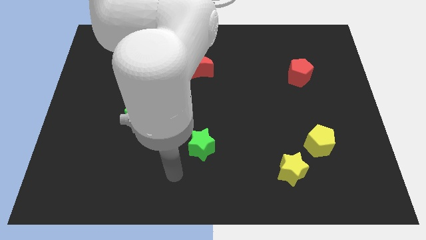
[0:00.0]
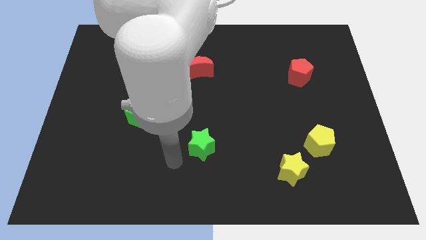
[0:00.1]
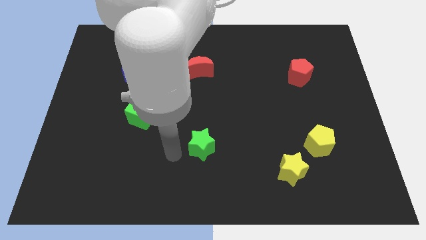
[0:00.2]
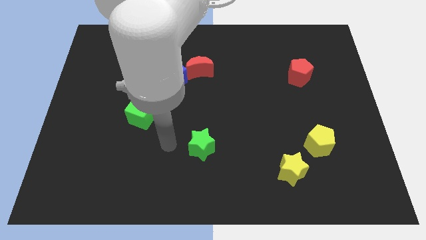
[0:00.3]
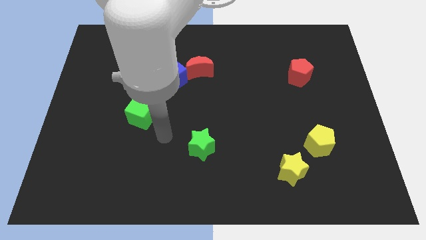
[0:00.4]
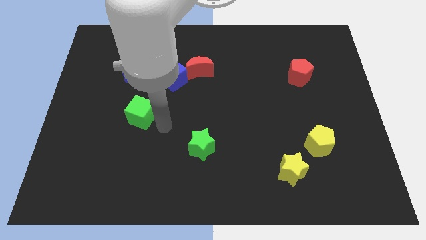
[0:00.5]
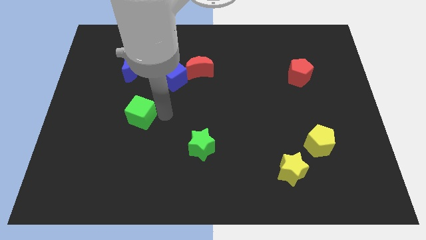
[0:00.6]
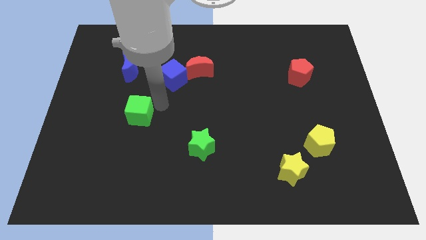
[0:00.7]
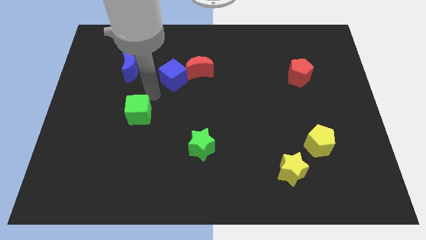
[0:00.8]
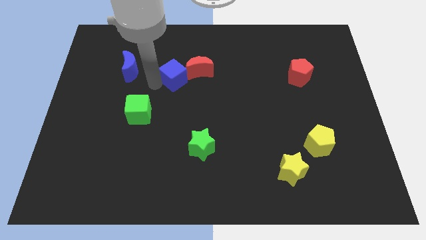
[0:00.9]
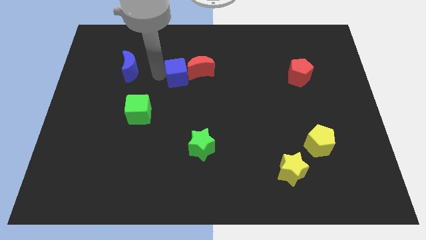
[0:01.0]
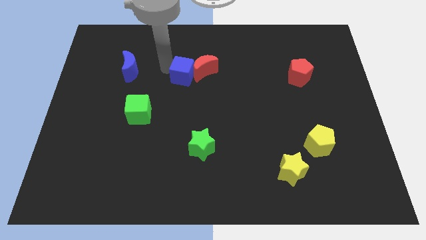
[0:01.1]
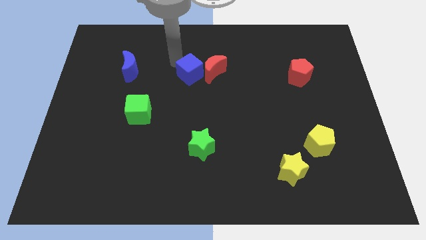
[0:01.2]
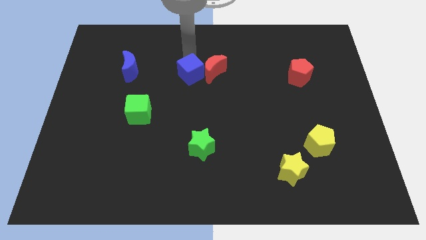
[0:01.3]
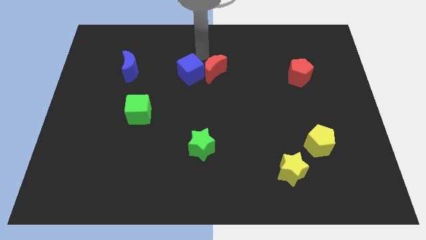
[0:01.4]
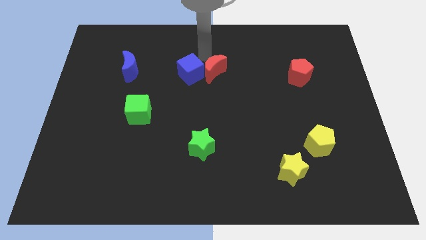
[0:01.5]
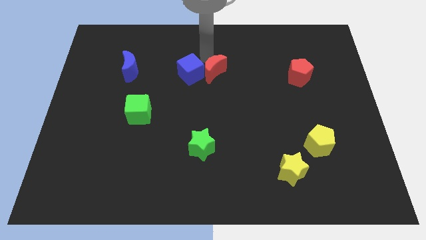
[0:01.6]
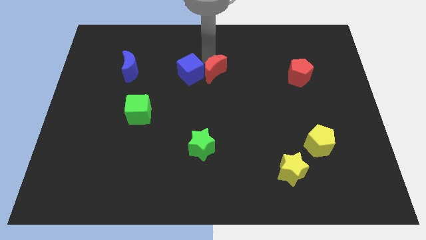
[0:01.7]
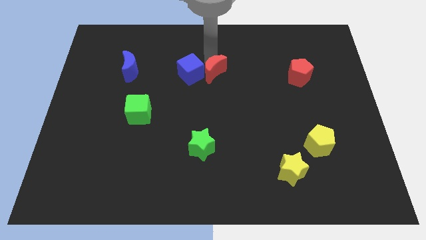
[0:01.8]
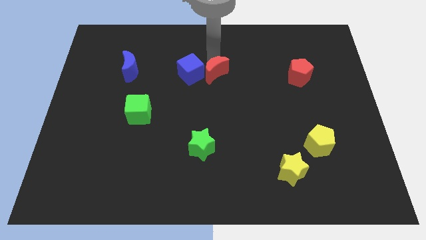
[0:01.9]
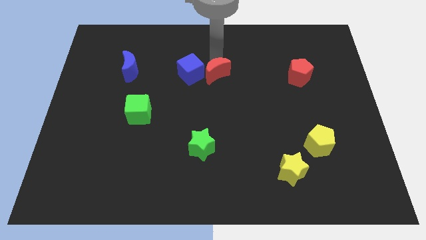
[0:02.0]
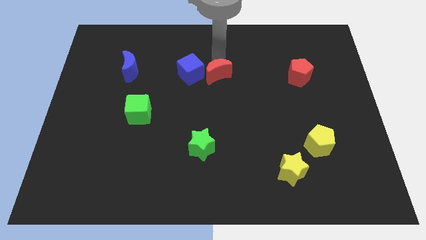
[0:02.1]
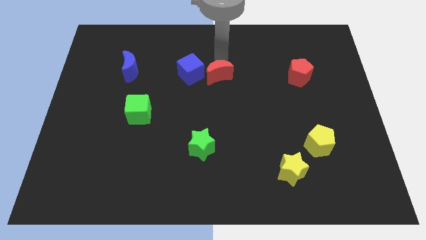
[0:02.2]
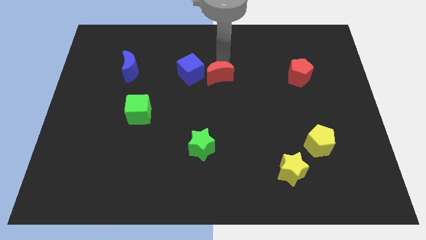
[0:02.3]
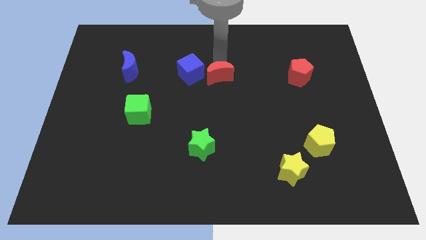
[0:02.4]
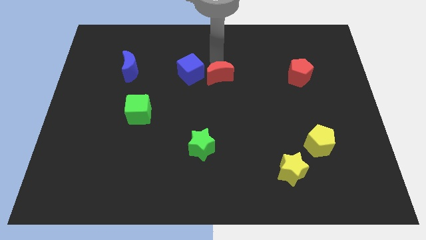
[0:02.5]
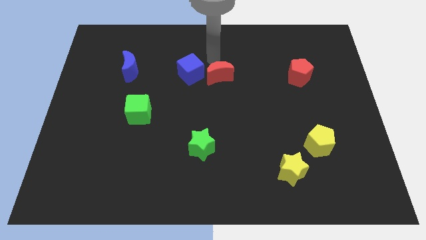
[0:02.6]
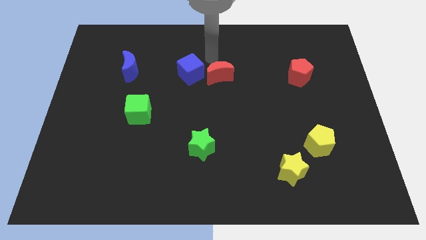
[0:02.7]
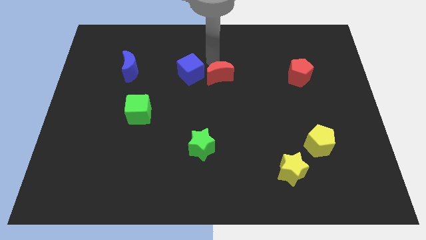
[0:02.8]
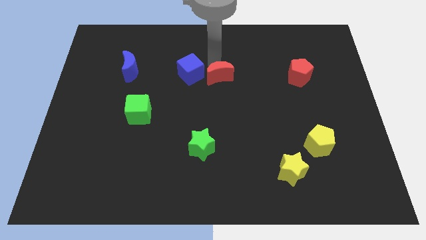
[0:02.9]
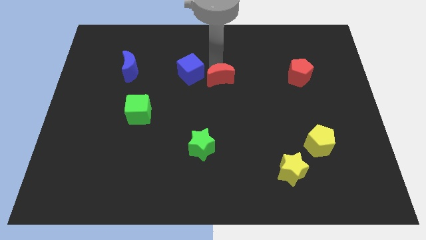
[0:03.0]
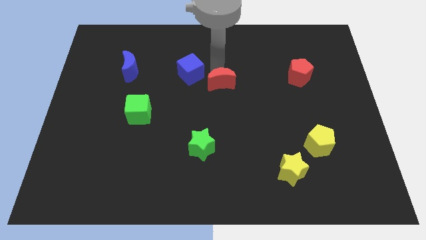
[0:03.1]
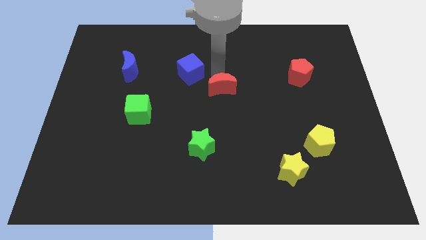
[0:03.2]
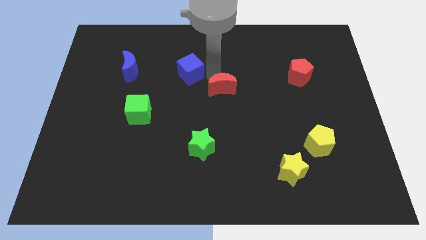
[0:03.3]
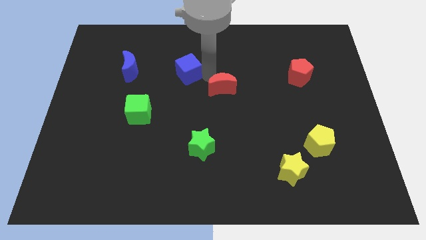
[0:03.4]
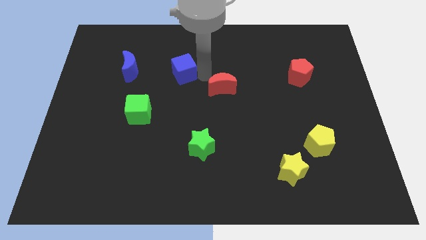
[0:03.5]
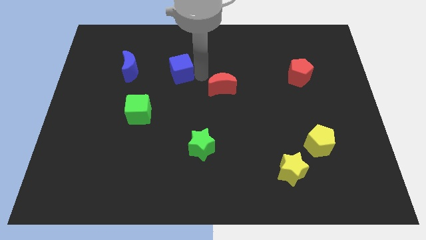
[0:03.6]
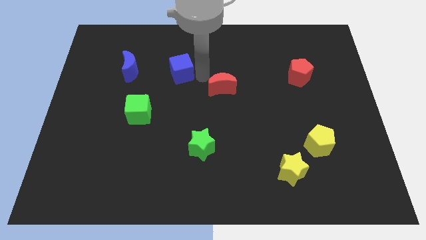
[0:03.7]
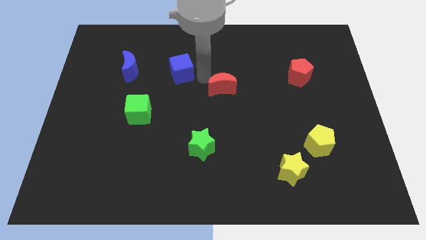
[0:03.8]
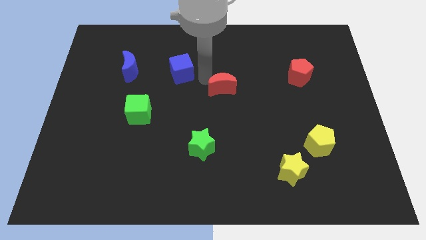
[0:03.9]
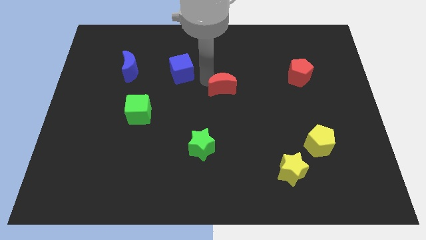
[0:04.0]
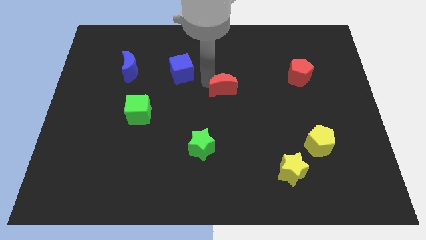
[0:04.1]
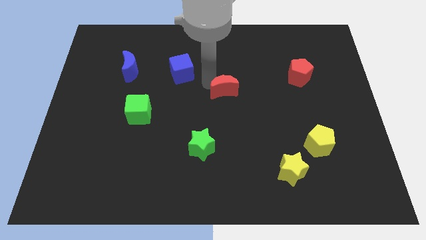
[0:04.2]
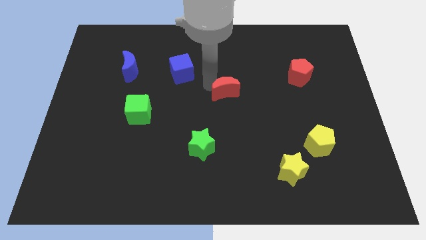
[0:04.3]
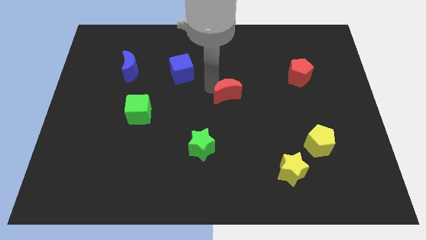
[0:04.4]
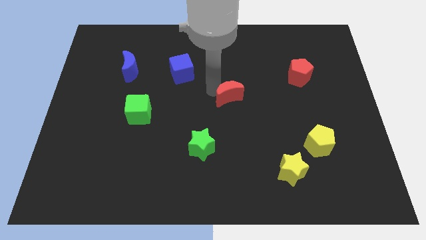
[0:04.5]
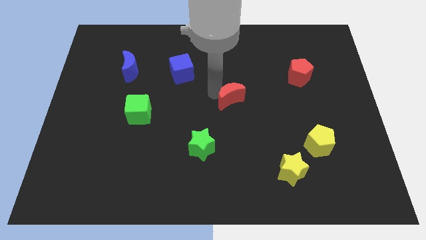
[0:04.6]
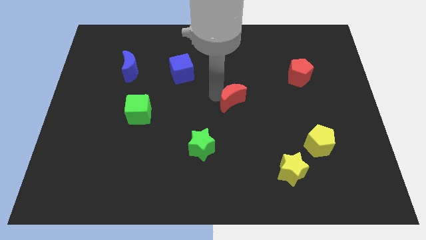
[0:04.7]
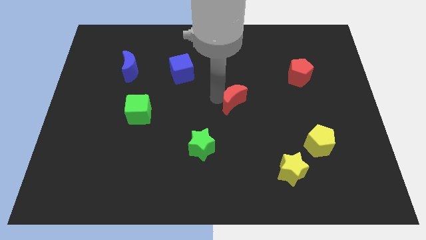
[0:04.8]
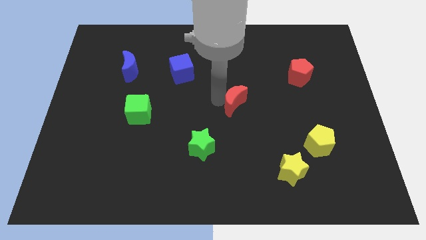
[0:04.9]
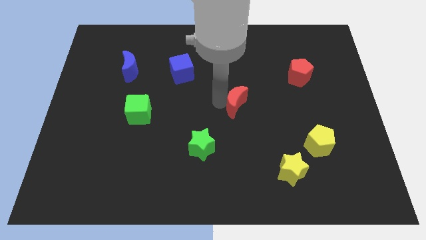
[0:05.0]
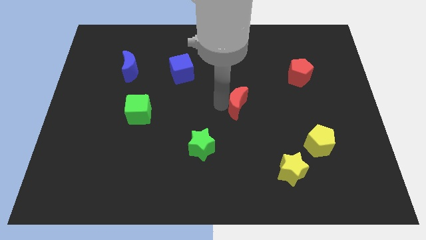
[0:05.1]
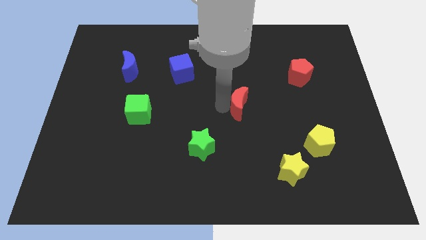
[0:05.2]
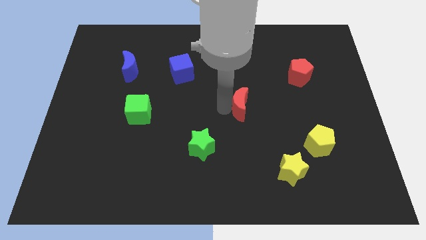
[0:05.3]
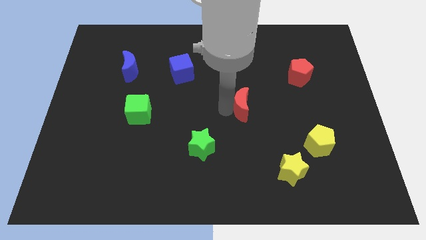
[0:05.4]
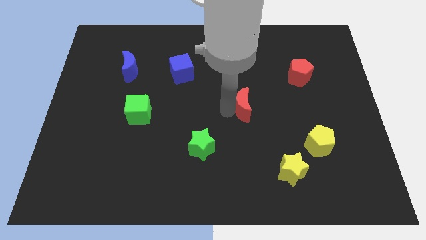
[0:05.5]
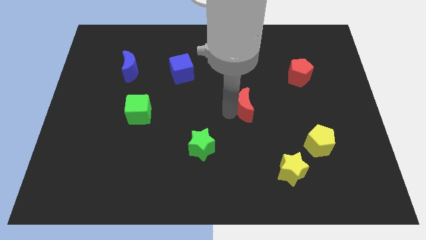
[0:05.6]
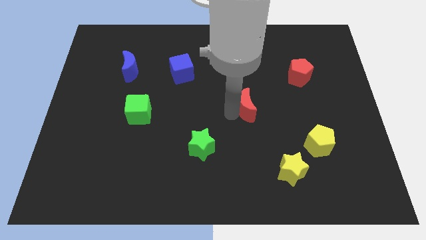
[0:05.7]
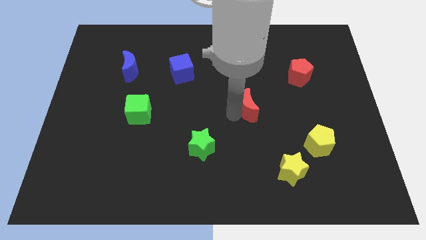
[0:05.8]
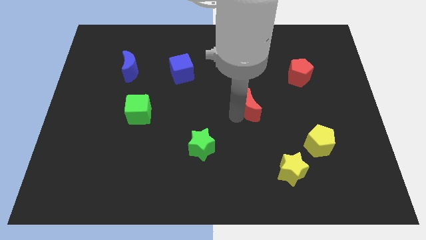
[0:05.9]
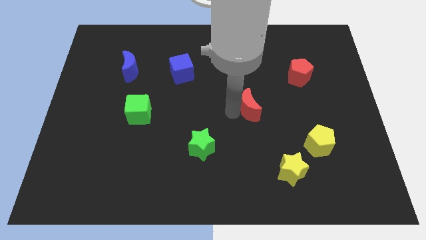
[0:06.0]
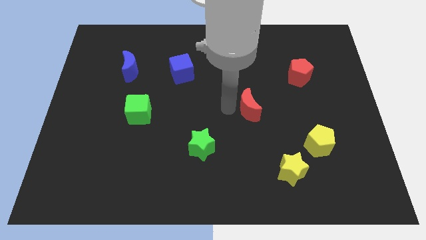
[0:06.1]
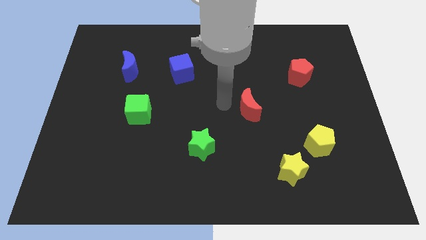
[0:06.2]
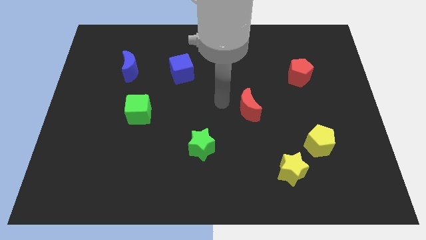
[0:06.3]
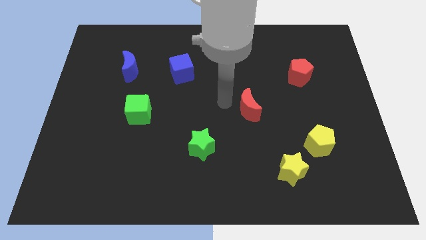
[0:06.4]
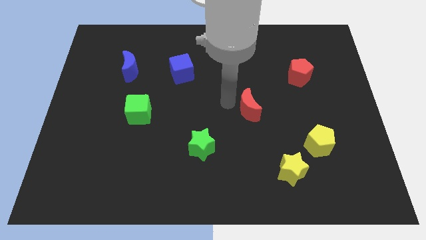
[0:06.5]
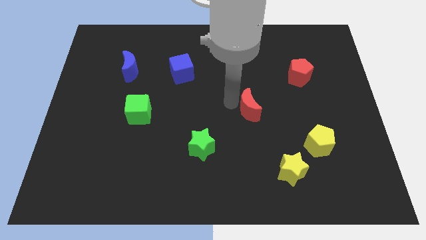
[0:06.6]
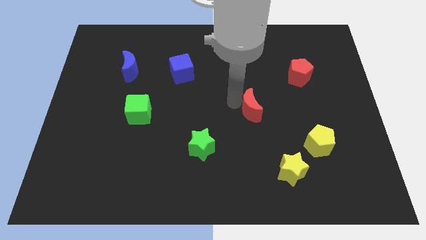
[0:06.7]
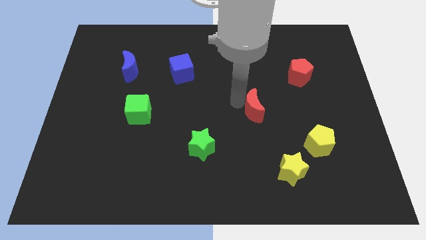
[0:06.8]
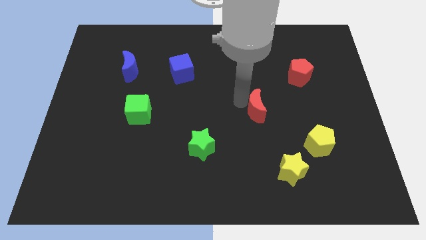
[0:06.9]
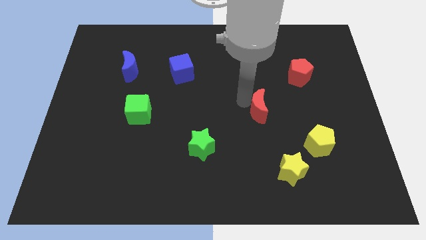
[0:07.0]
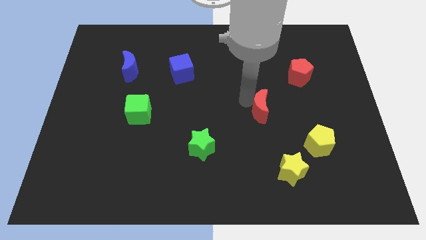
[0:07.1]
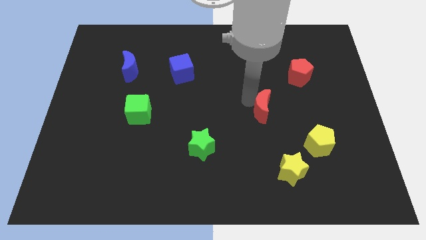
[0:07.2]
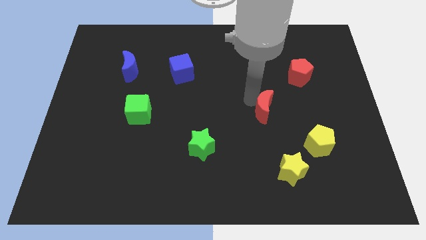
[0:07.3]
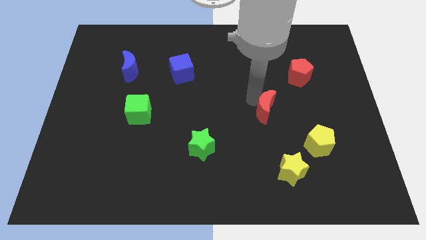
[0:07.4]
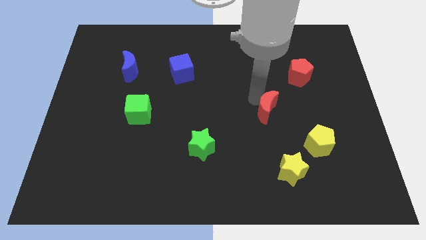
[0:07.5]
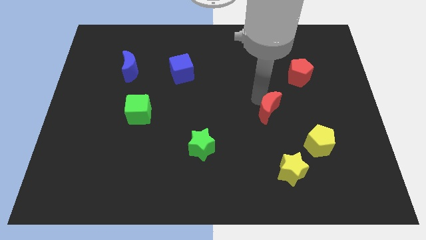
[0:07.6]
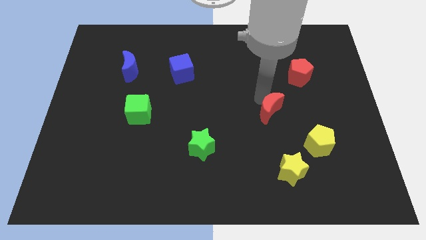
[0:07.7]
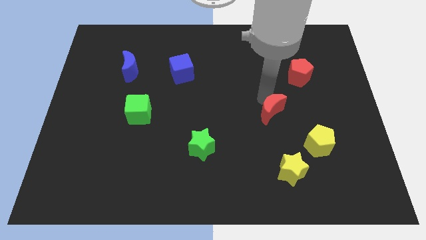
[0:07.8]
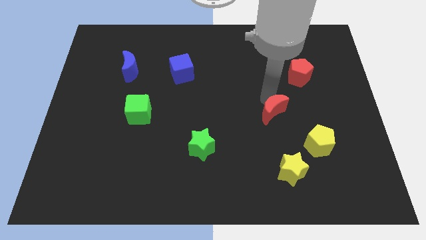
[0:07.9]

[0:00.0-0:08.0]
move the red moon diagonally up and to the left of the yellow pentagon
